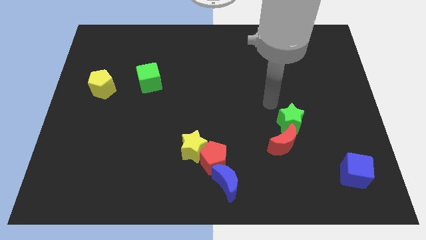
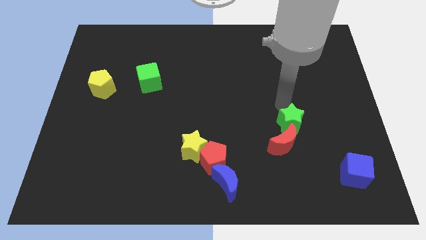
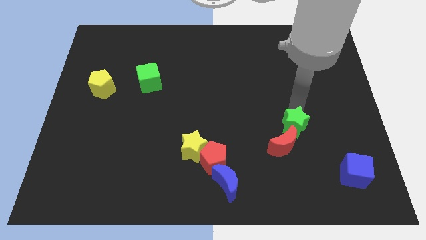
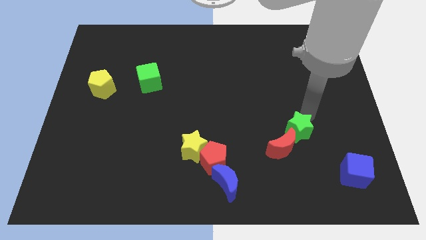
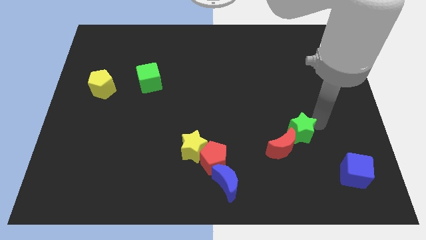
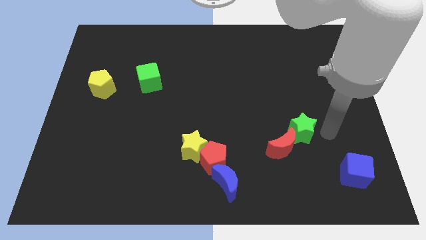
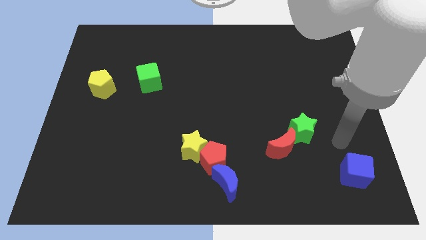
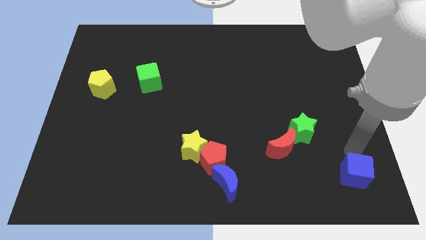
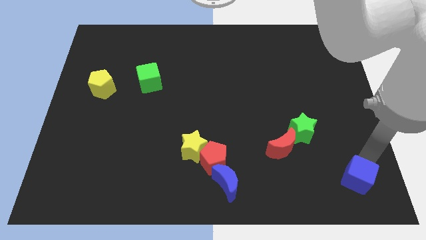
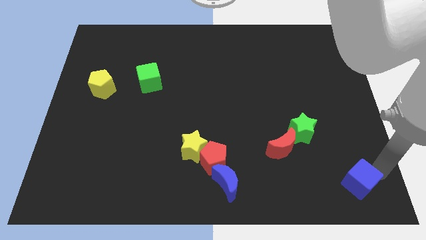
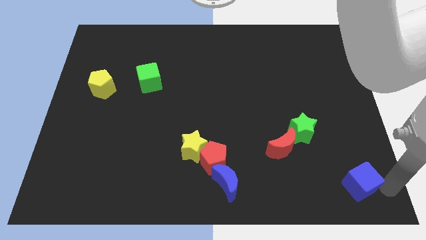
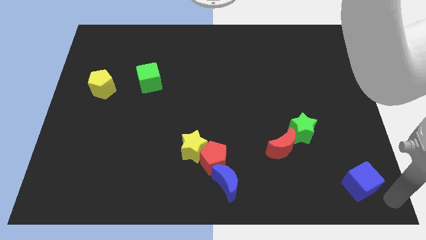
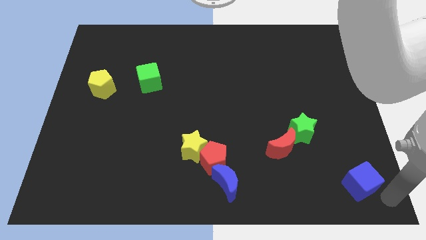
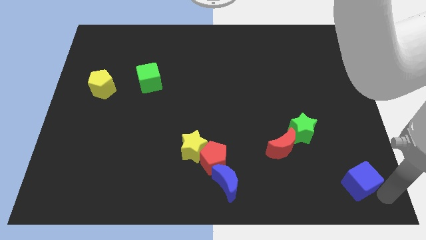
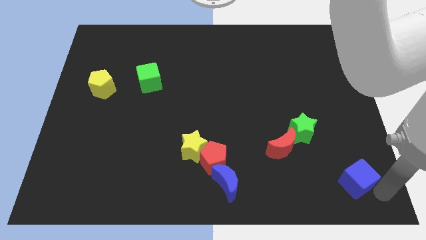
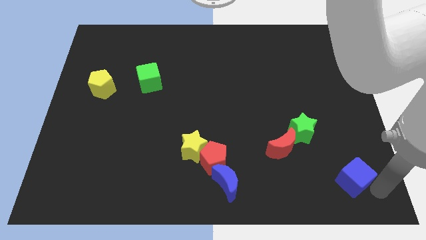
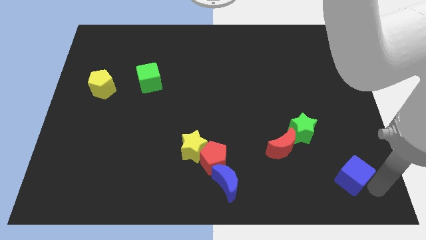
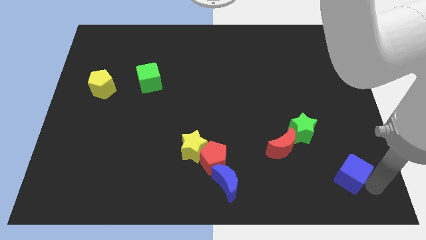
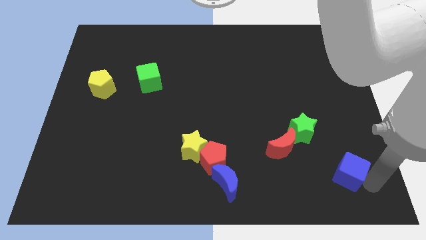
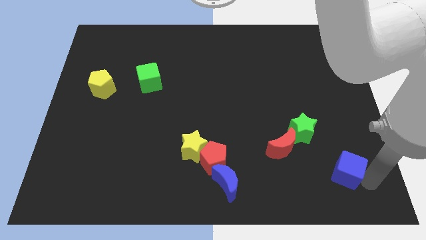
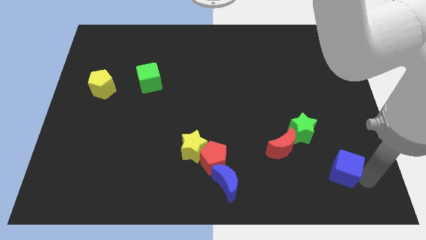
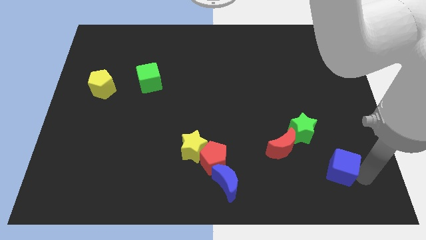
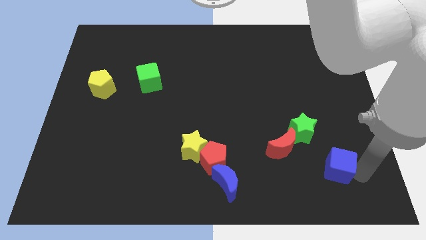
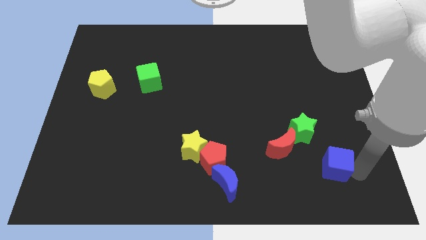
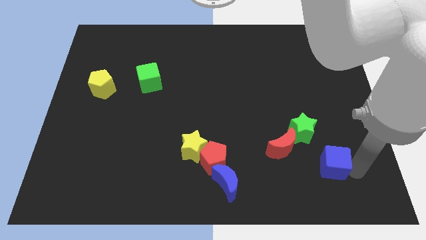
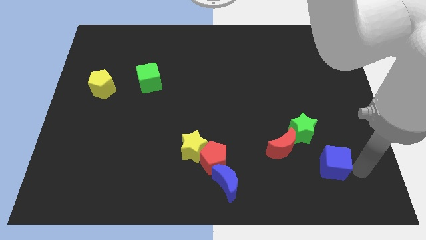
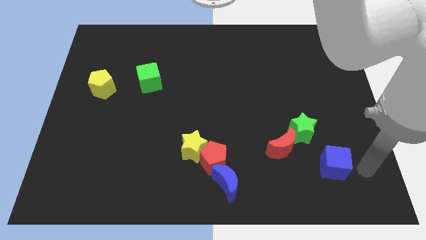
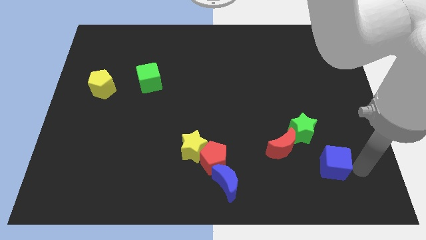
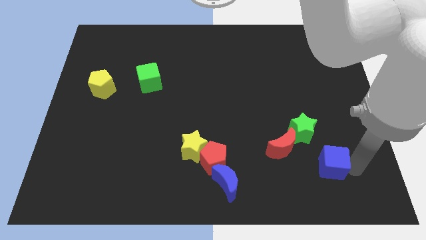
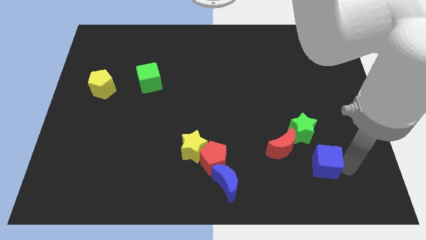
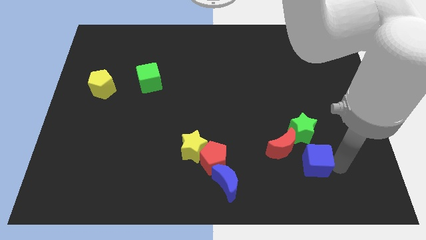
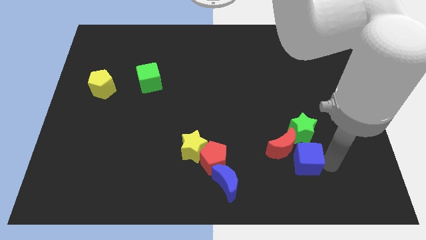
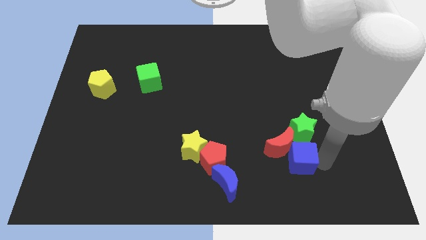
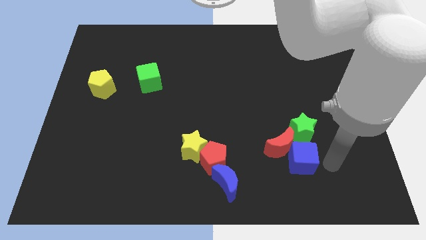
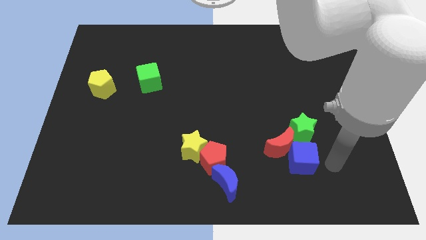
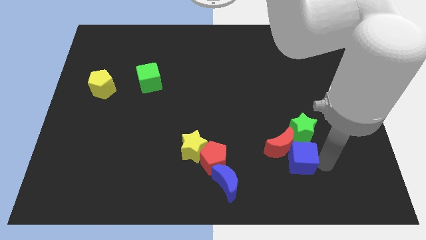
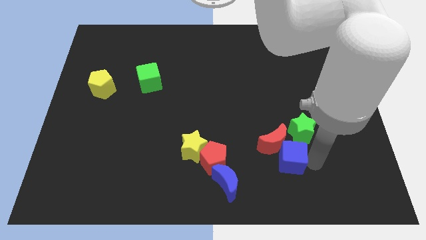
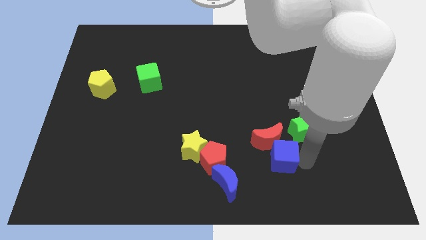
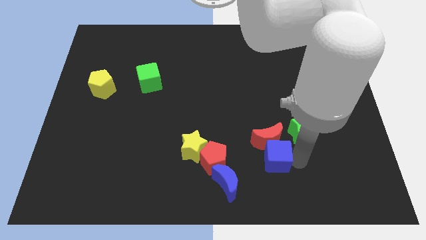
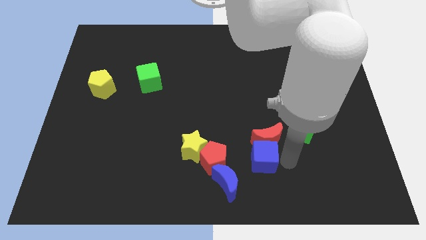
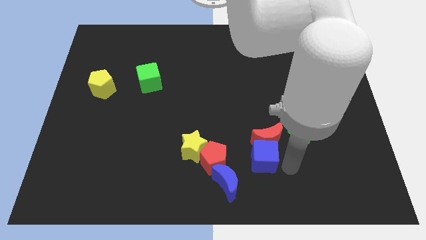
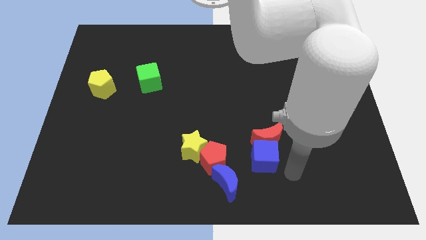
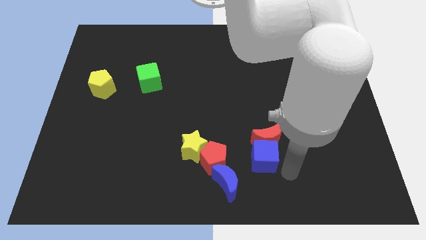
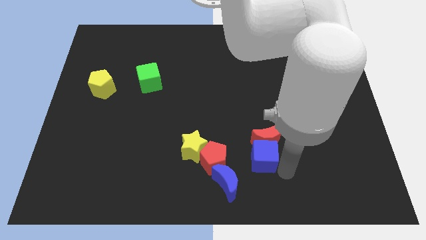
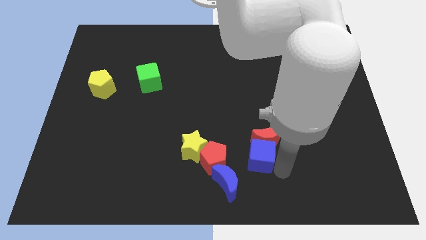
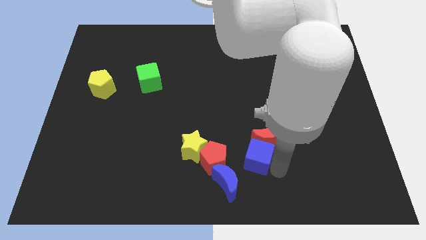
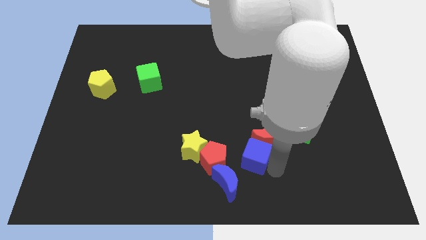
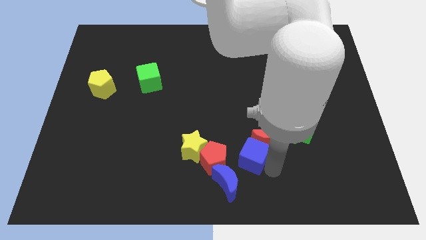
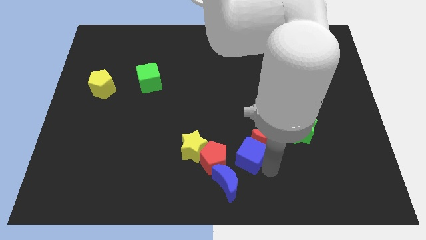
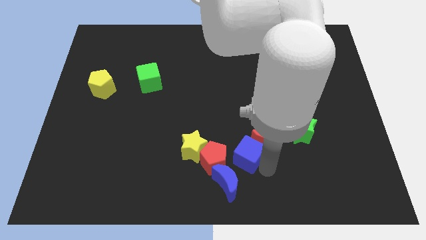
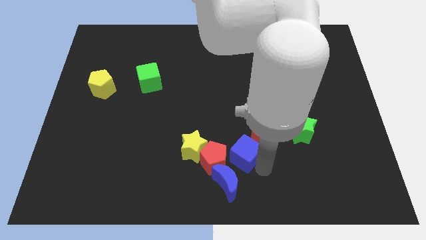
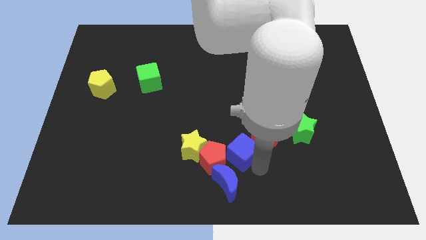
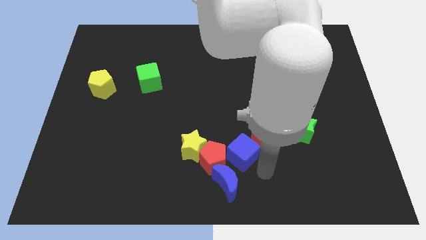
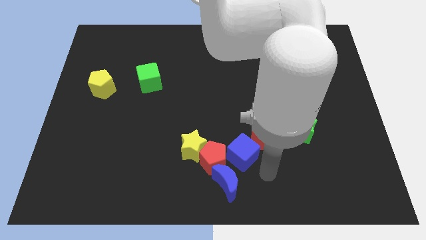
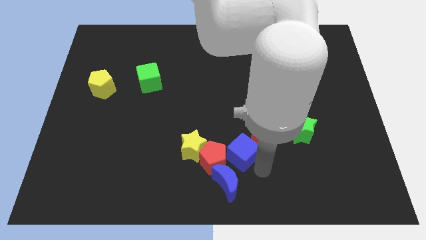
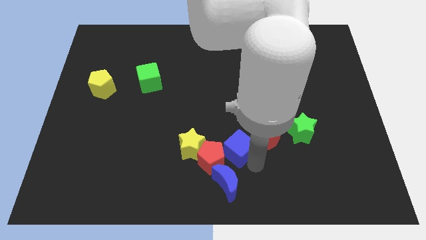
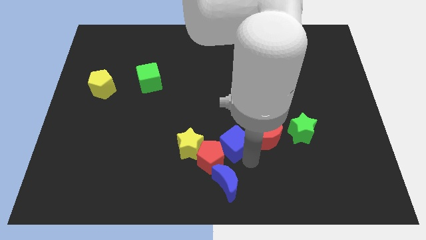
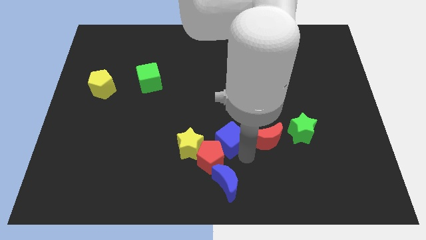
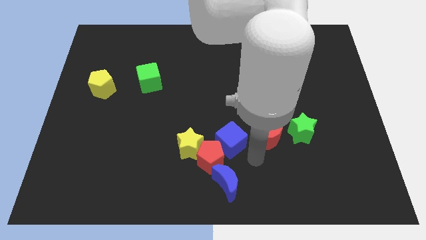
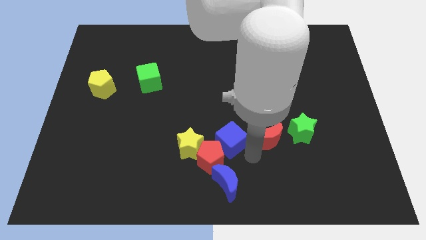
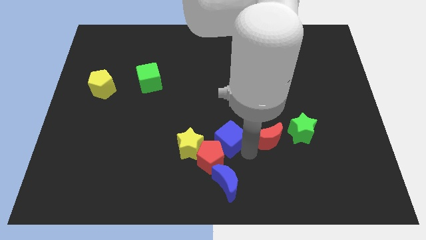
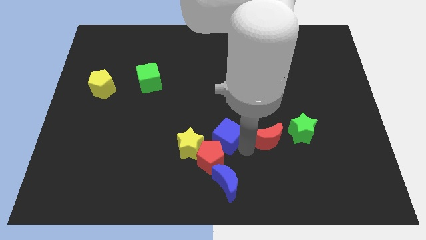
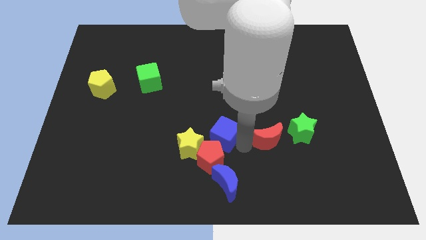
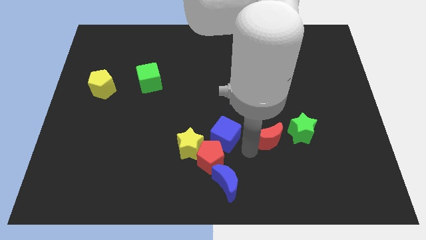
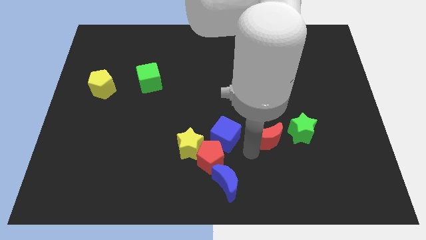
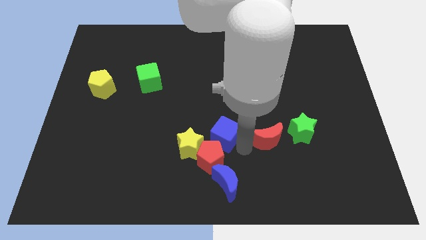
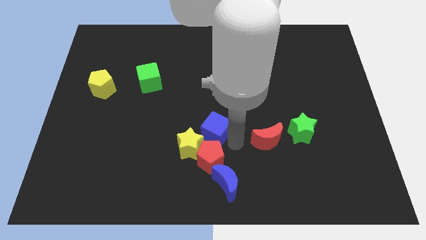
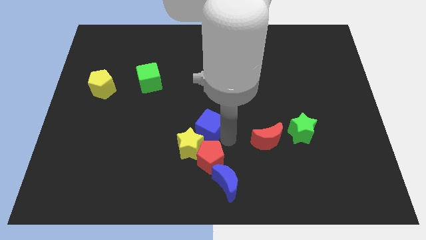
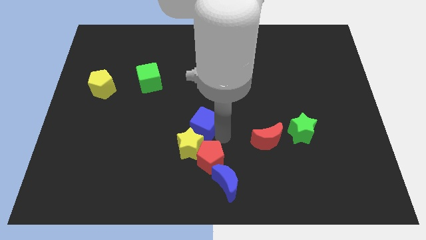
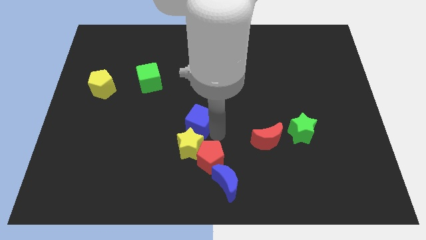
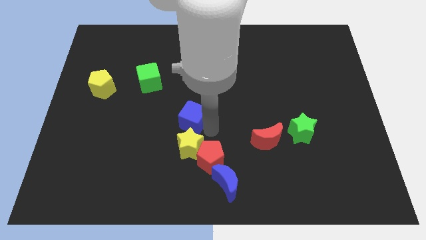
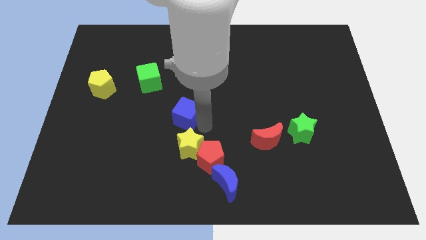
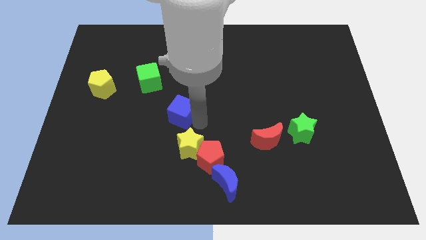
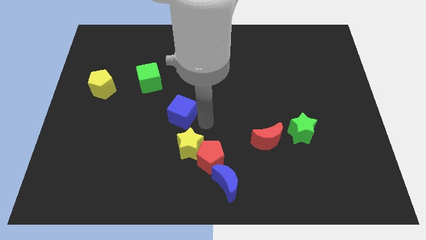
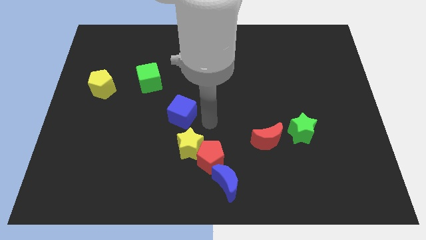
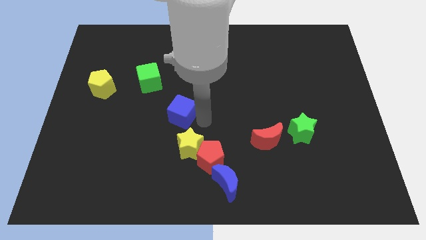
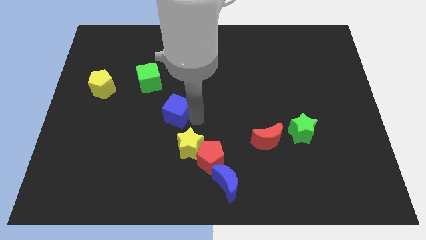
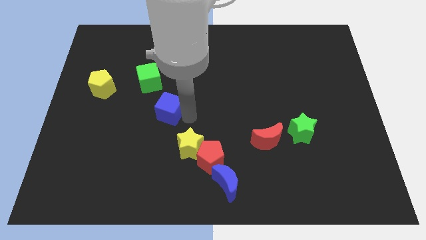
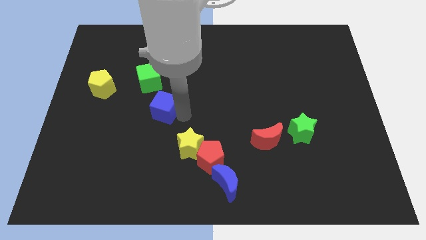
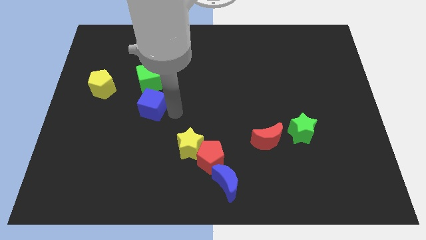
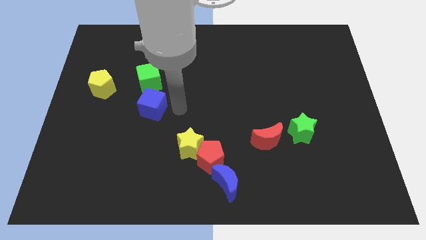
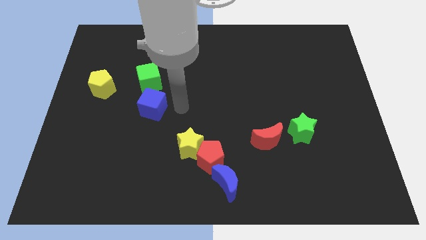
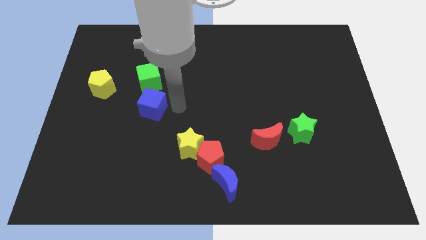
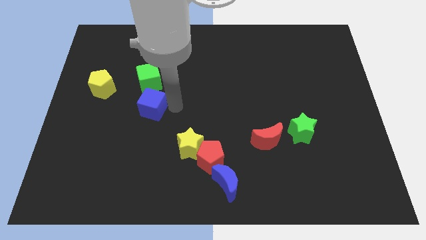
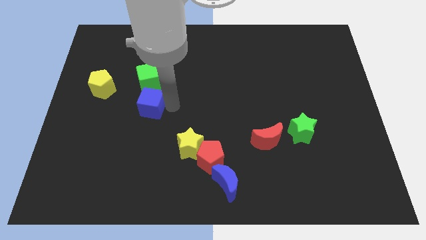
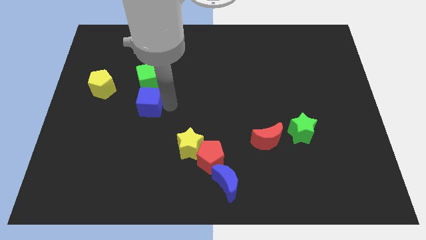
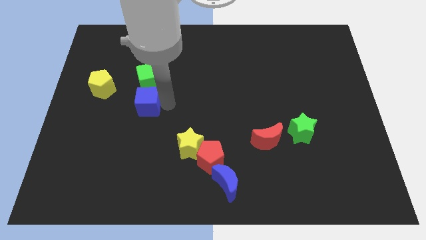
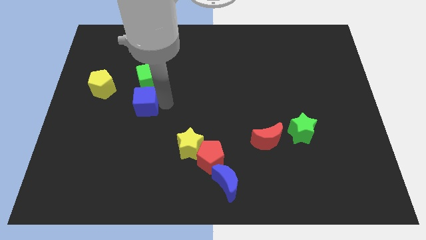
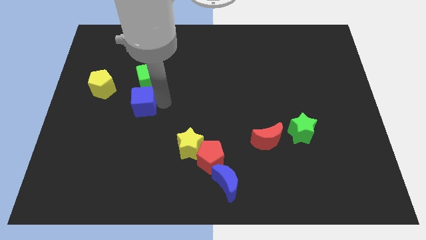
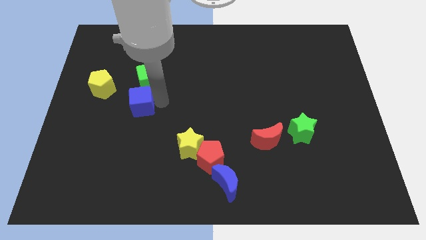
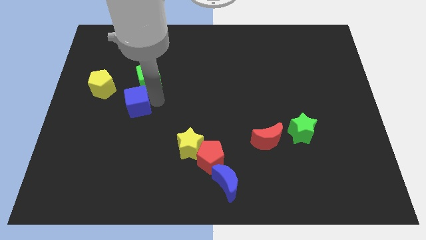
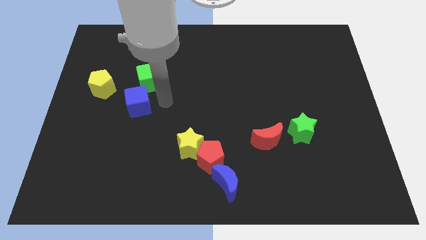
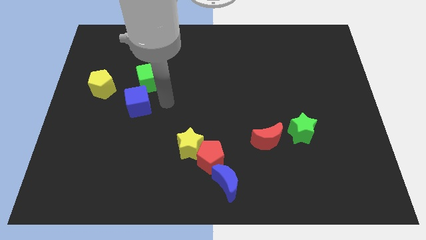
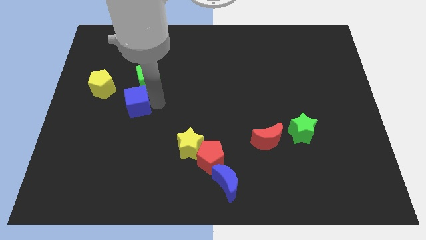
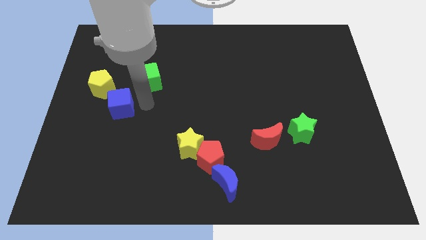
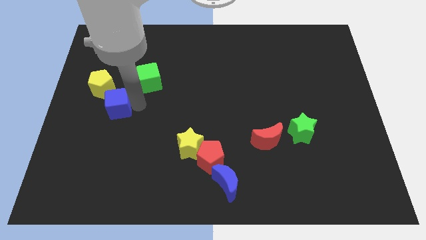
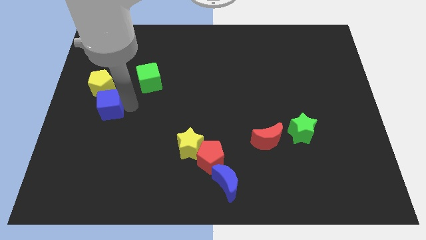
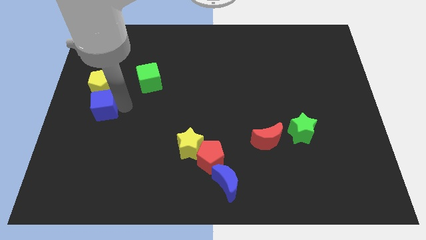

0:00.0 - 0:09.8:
push the blue cube to the left side of the board
